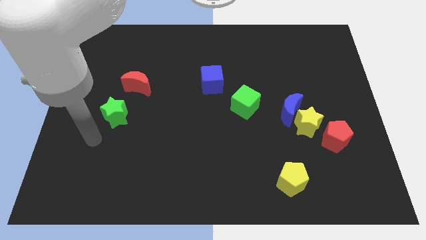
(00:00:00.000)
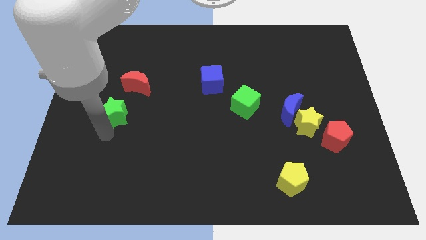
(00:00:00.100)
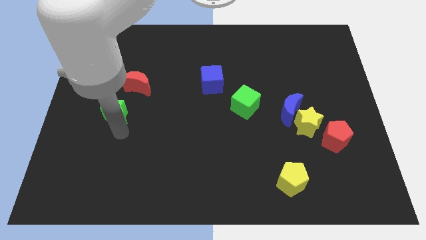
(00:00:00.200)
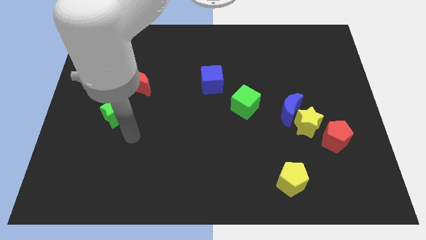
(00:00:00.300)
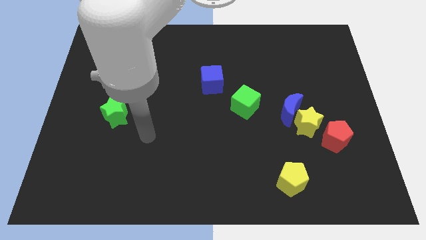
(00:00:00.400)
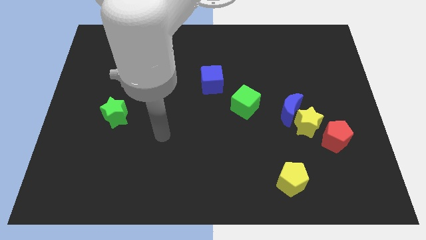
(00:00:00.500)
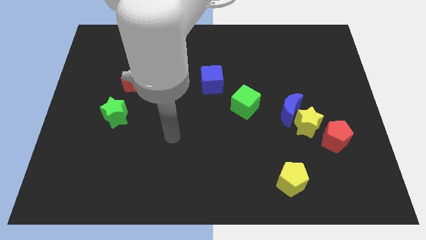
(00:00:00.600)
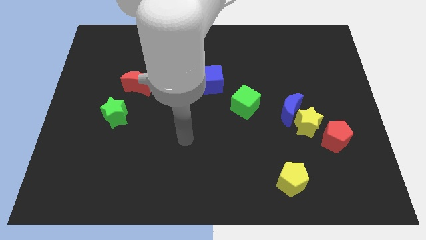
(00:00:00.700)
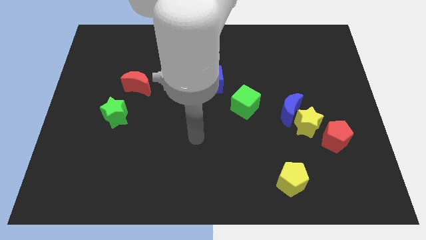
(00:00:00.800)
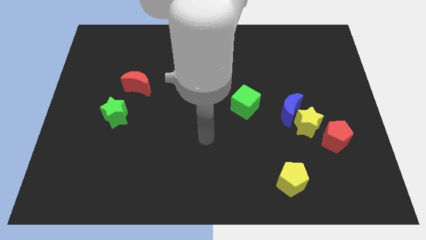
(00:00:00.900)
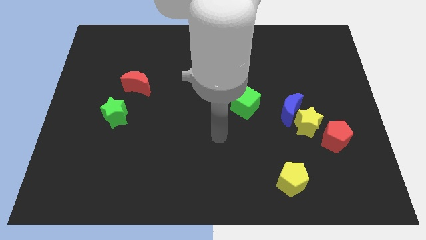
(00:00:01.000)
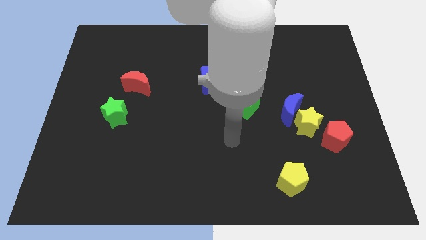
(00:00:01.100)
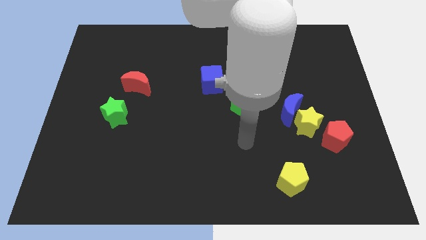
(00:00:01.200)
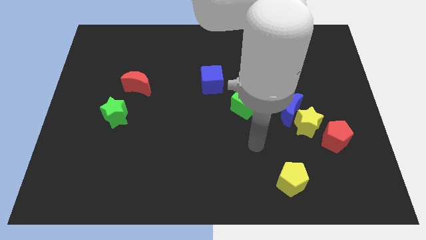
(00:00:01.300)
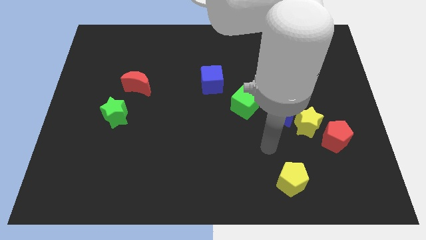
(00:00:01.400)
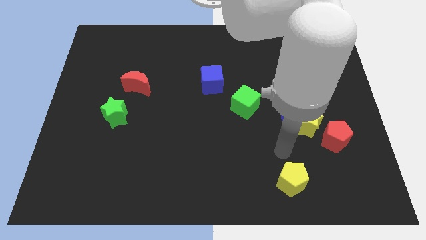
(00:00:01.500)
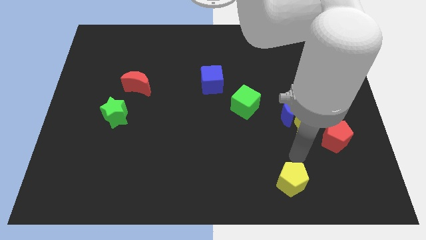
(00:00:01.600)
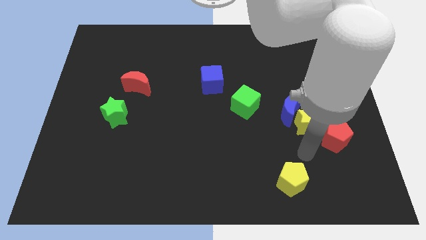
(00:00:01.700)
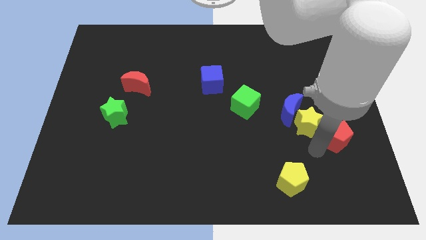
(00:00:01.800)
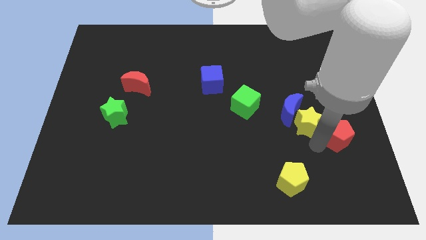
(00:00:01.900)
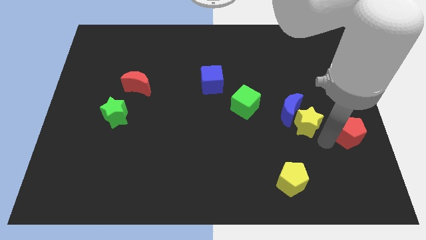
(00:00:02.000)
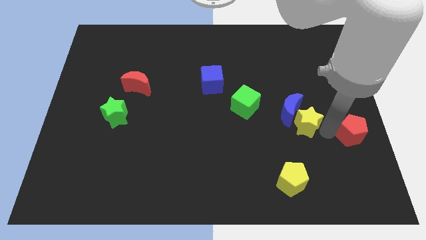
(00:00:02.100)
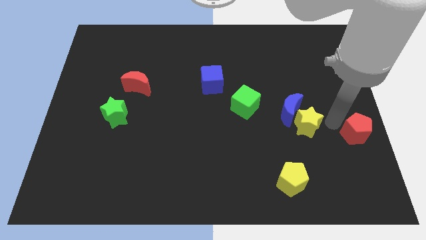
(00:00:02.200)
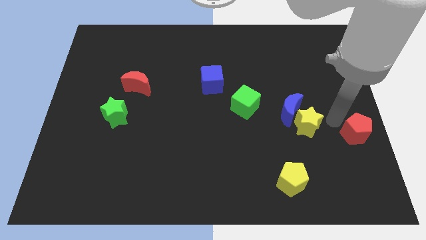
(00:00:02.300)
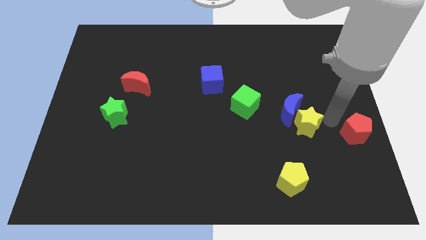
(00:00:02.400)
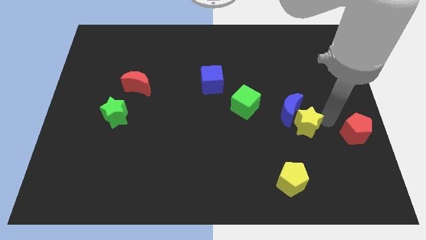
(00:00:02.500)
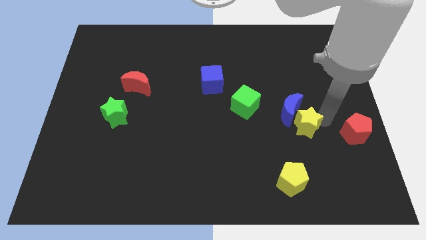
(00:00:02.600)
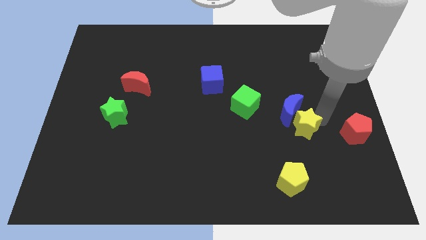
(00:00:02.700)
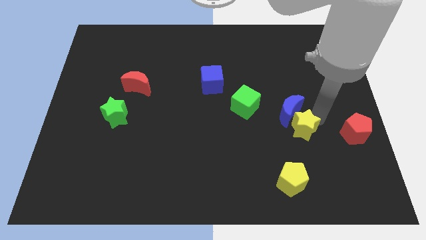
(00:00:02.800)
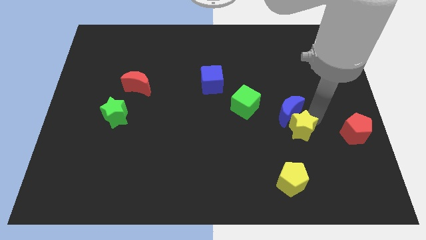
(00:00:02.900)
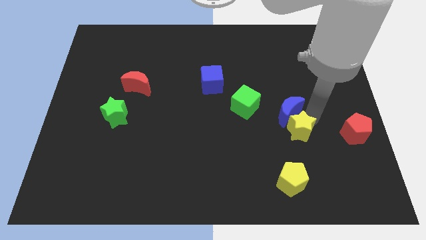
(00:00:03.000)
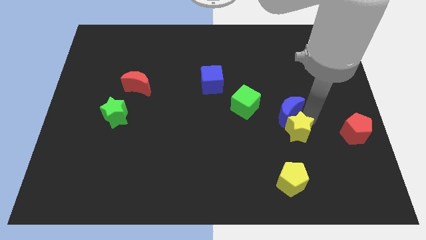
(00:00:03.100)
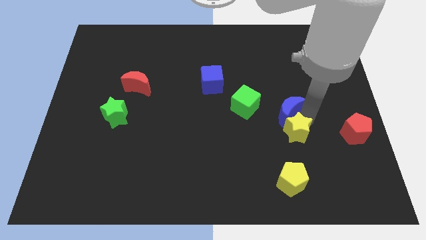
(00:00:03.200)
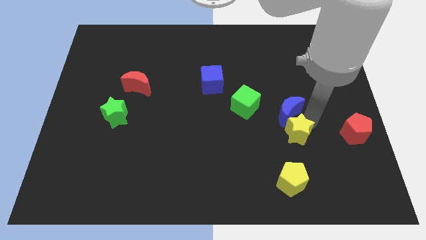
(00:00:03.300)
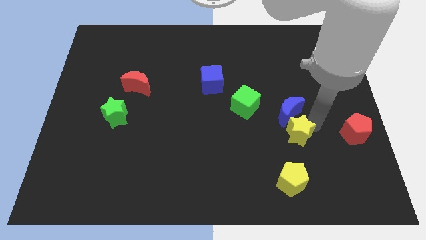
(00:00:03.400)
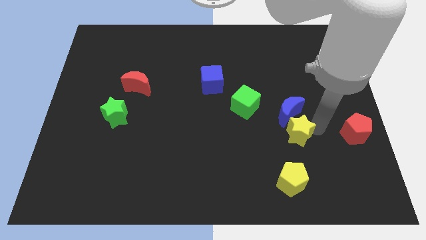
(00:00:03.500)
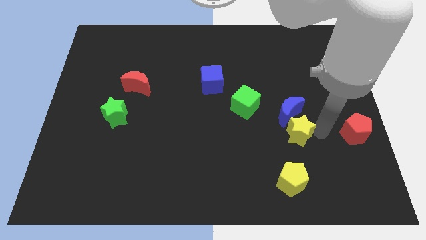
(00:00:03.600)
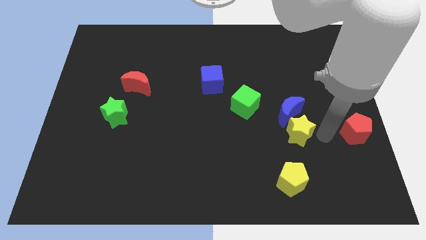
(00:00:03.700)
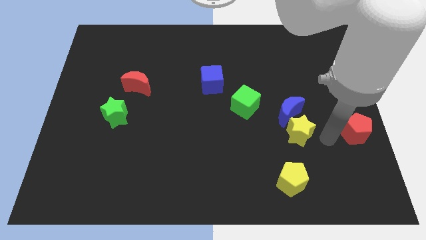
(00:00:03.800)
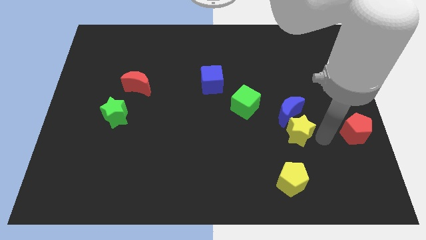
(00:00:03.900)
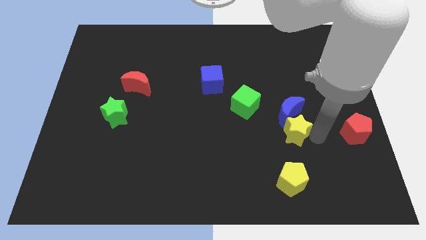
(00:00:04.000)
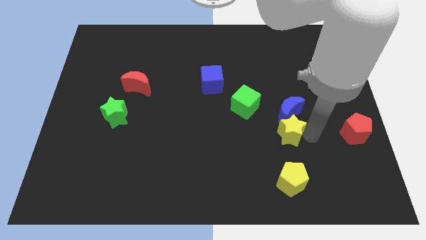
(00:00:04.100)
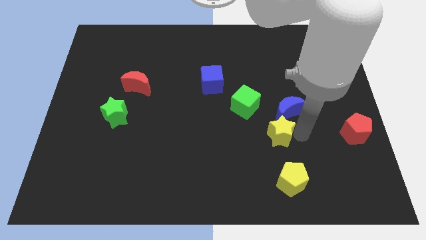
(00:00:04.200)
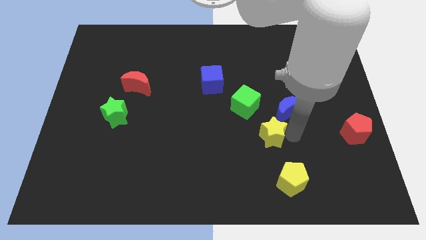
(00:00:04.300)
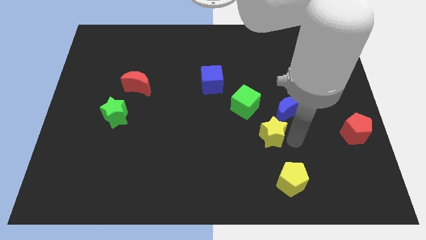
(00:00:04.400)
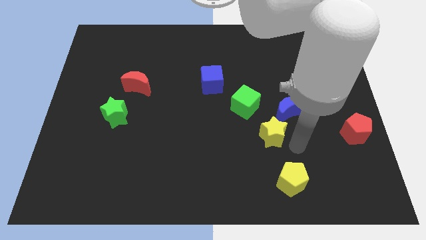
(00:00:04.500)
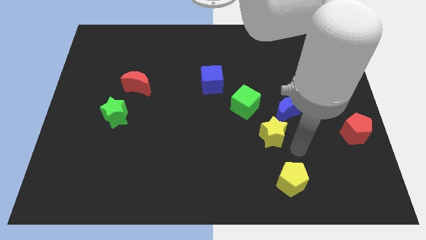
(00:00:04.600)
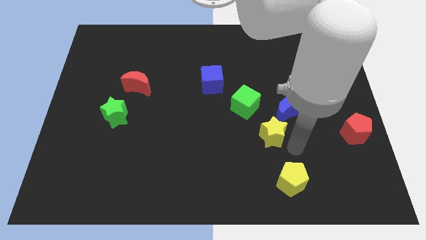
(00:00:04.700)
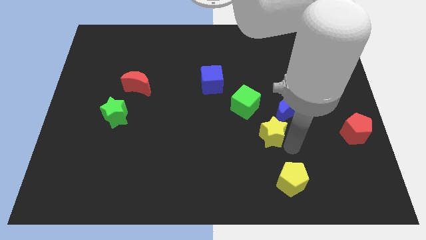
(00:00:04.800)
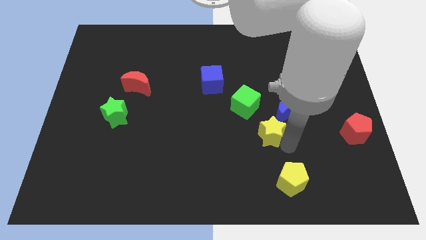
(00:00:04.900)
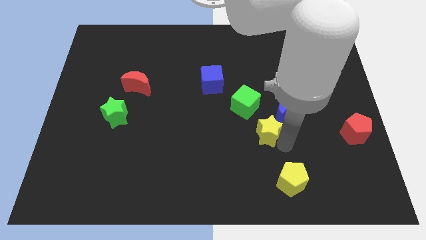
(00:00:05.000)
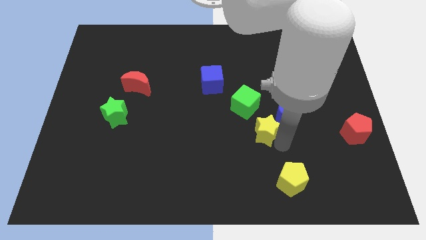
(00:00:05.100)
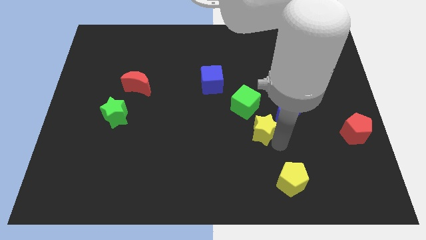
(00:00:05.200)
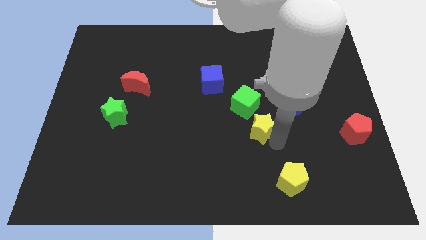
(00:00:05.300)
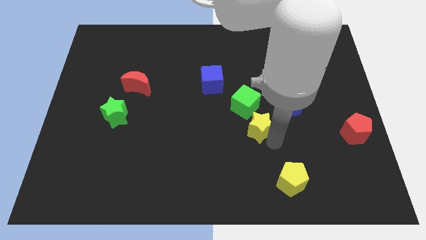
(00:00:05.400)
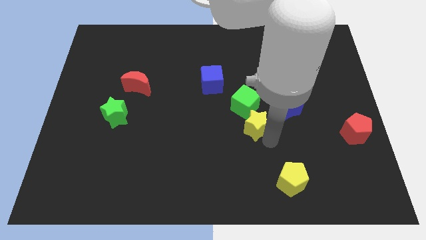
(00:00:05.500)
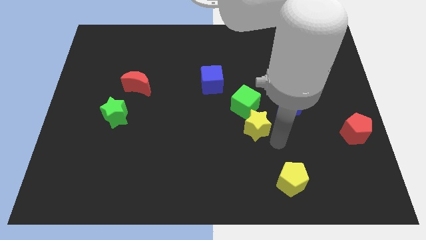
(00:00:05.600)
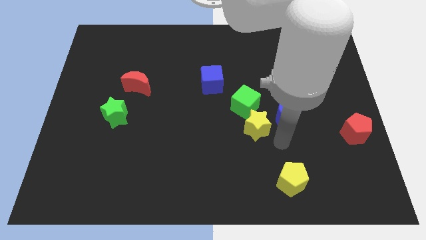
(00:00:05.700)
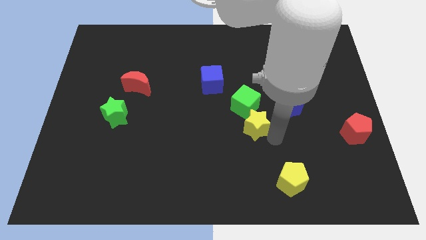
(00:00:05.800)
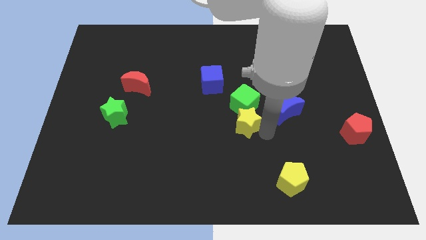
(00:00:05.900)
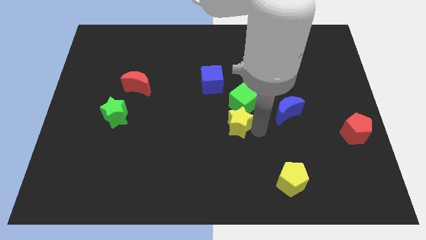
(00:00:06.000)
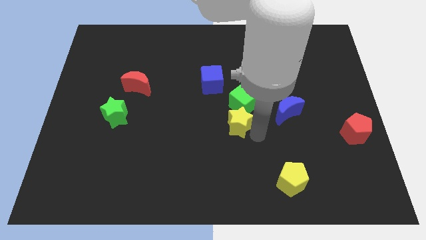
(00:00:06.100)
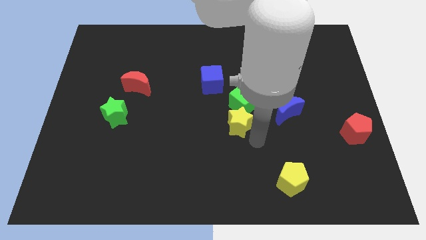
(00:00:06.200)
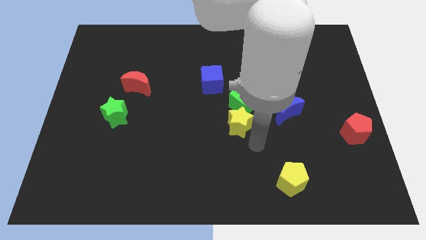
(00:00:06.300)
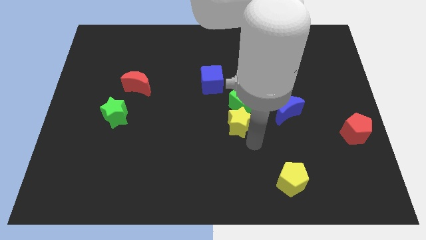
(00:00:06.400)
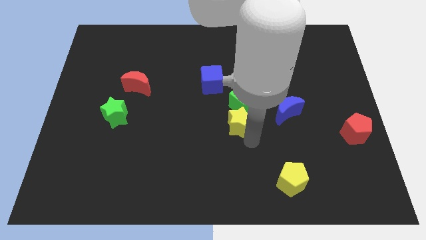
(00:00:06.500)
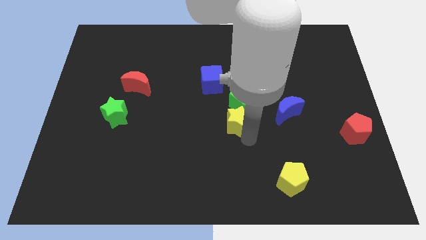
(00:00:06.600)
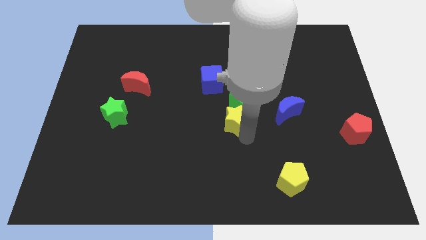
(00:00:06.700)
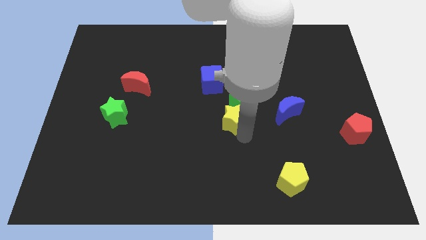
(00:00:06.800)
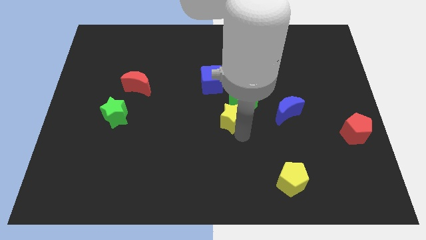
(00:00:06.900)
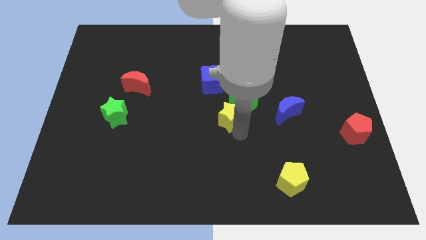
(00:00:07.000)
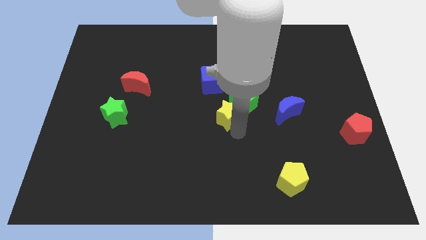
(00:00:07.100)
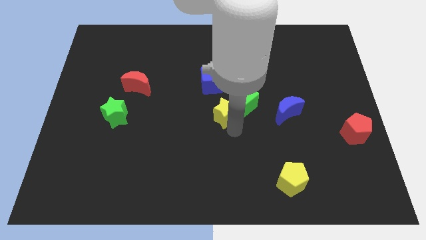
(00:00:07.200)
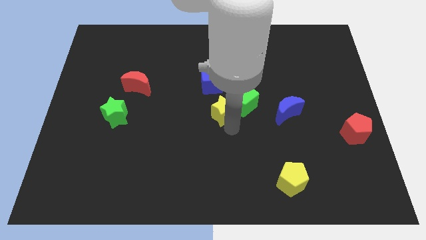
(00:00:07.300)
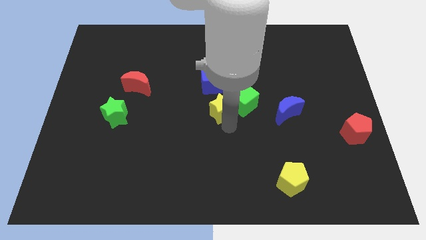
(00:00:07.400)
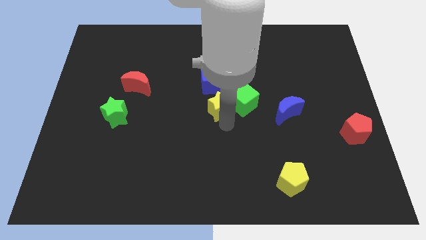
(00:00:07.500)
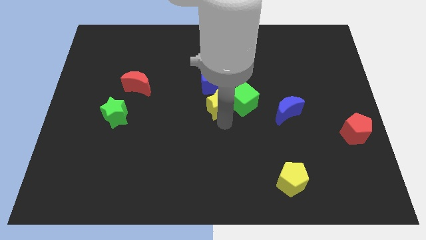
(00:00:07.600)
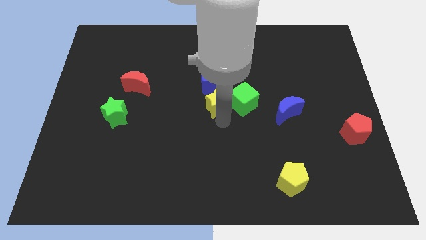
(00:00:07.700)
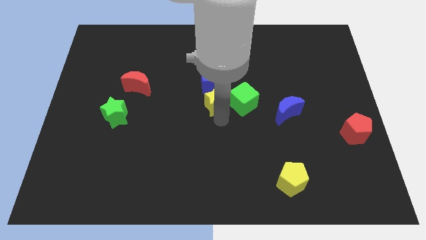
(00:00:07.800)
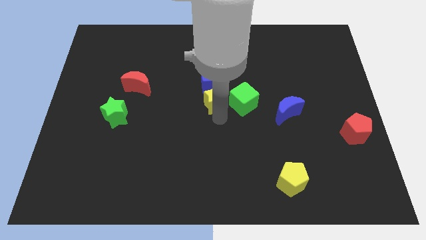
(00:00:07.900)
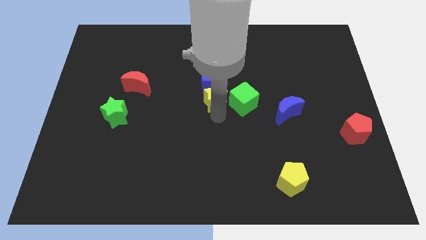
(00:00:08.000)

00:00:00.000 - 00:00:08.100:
slide the yellow star to the blue cube
